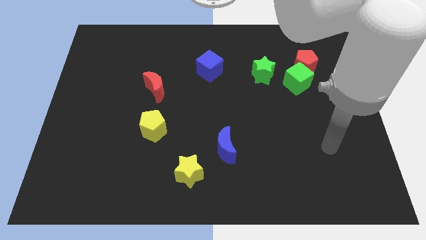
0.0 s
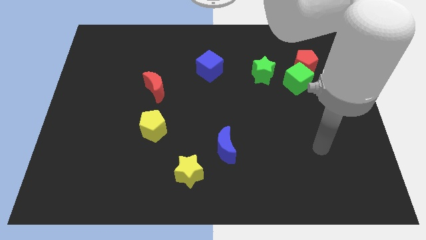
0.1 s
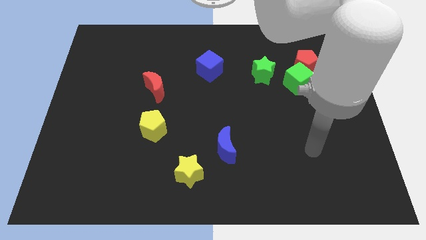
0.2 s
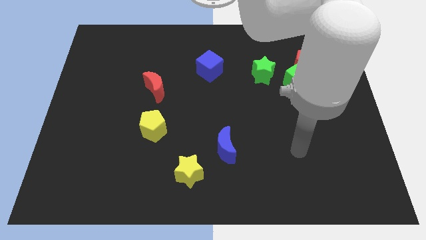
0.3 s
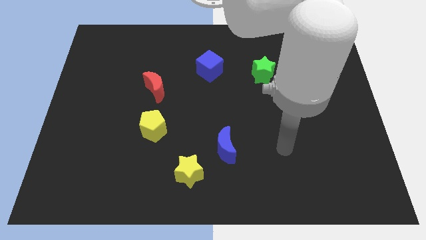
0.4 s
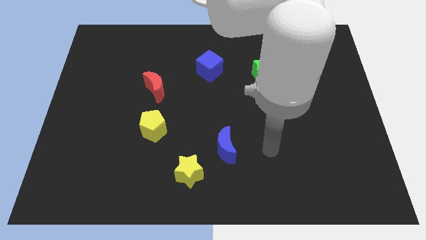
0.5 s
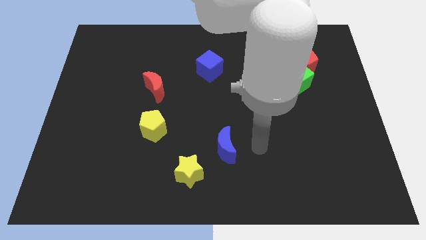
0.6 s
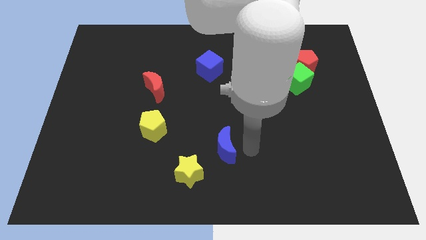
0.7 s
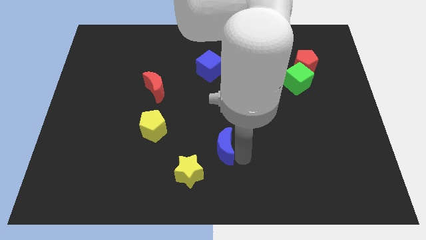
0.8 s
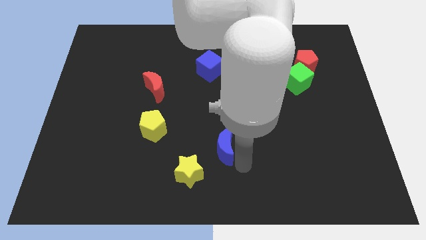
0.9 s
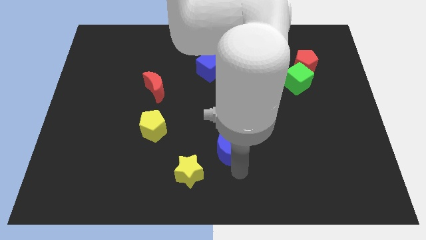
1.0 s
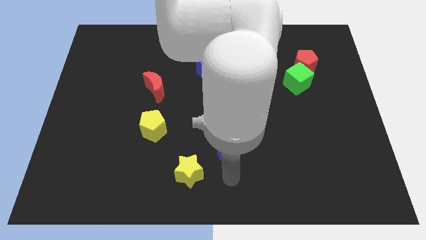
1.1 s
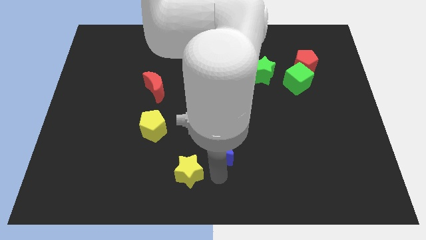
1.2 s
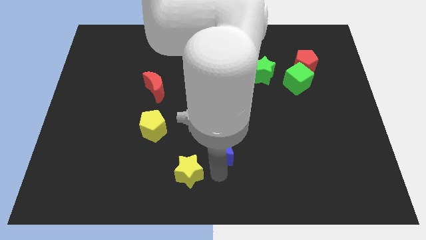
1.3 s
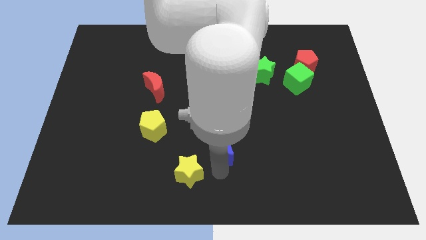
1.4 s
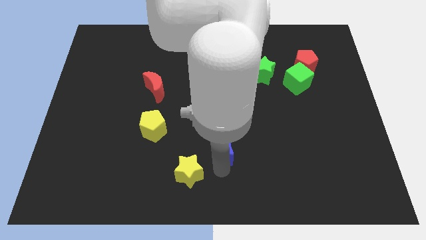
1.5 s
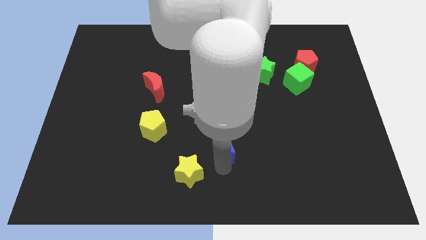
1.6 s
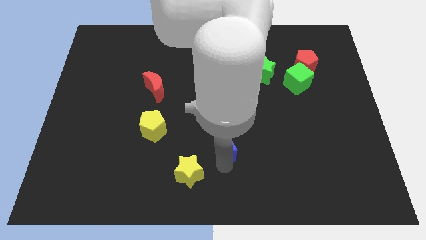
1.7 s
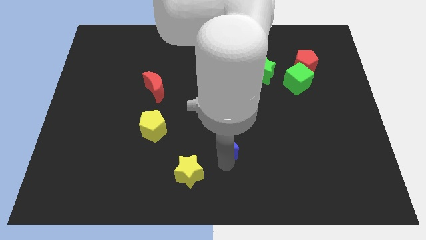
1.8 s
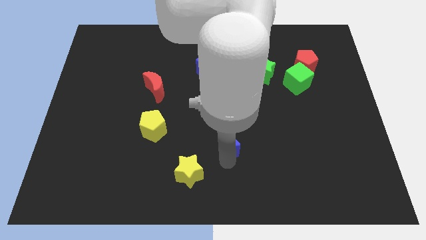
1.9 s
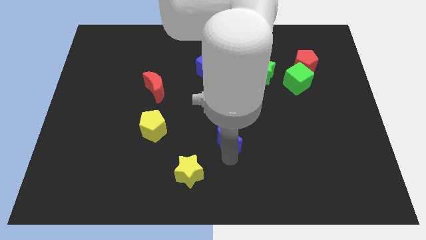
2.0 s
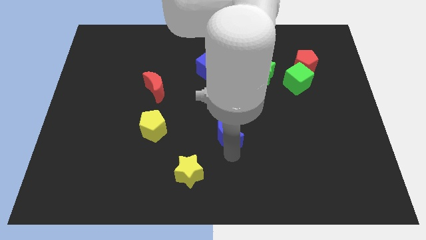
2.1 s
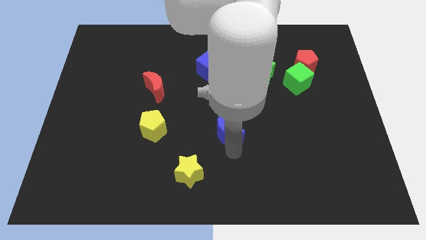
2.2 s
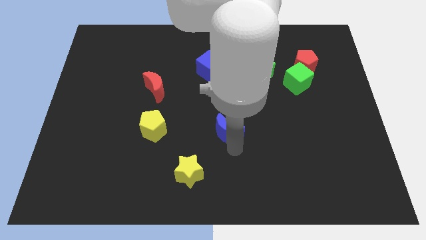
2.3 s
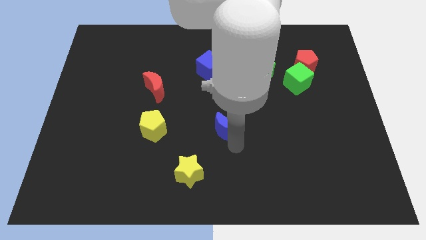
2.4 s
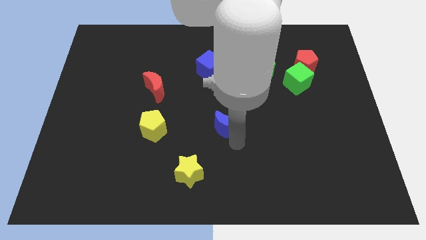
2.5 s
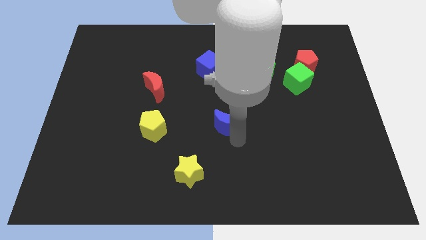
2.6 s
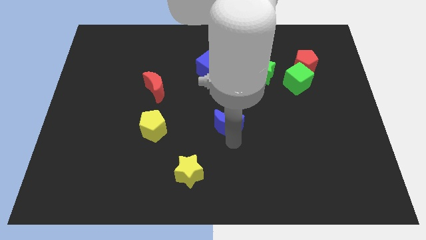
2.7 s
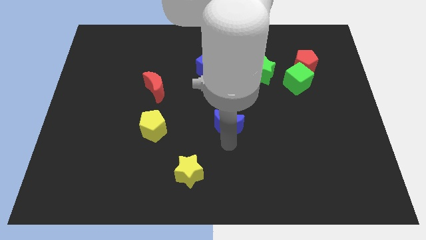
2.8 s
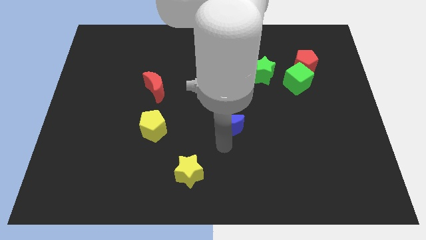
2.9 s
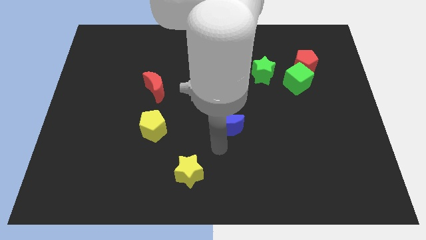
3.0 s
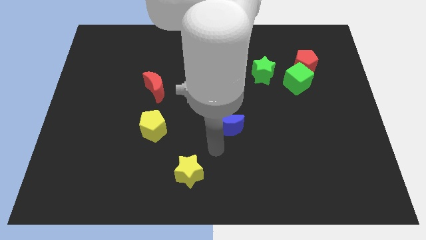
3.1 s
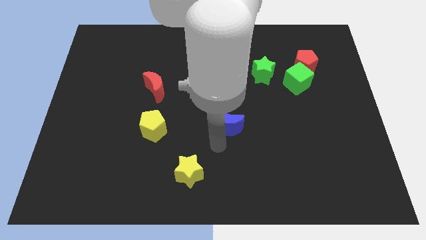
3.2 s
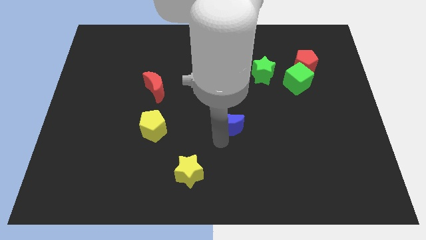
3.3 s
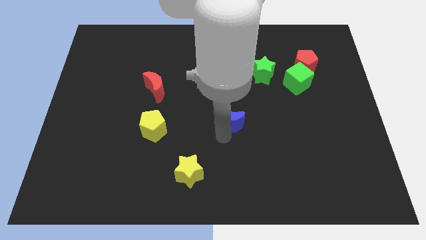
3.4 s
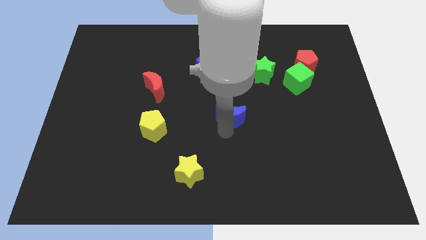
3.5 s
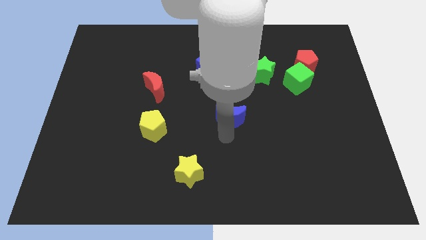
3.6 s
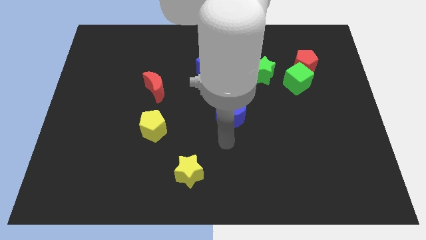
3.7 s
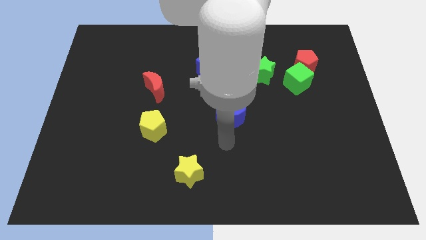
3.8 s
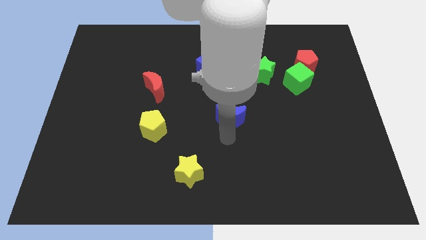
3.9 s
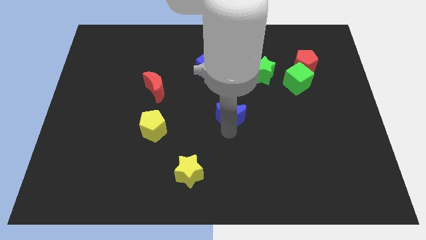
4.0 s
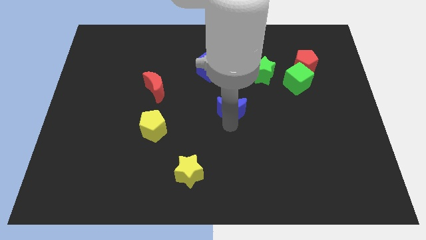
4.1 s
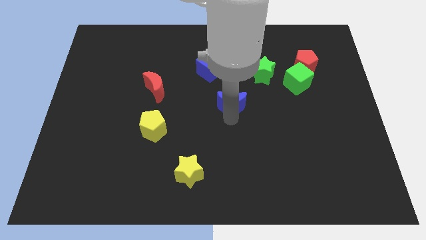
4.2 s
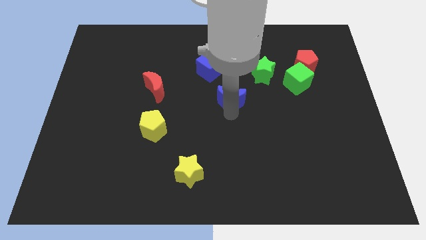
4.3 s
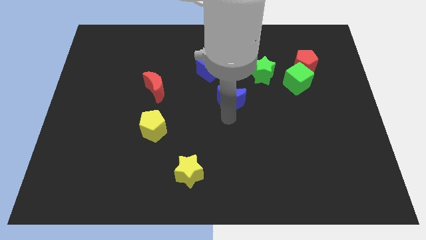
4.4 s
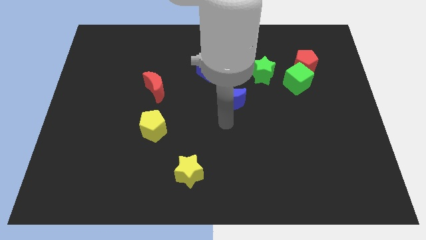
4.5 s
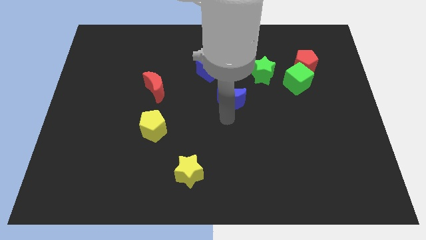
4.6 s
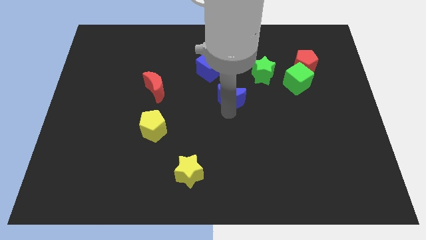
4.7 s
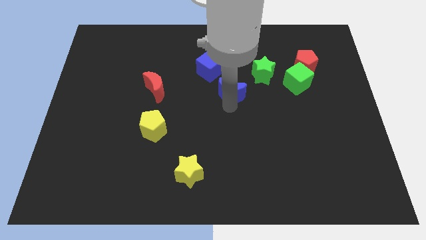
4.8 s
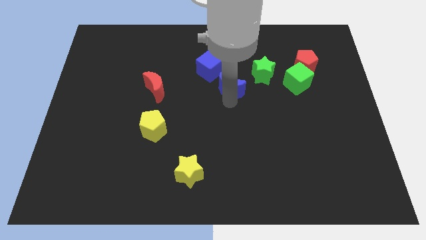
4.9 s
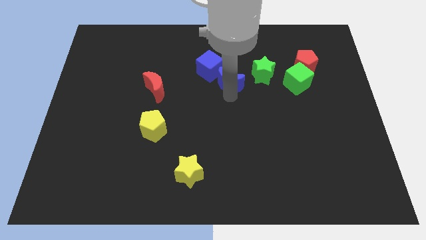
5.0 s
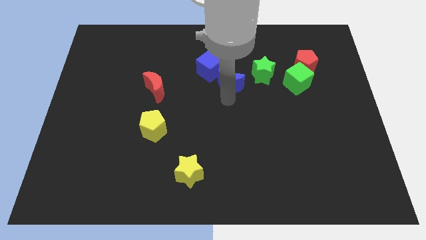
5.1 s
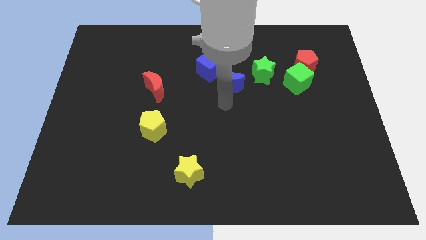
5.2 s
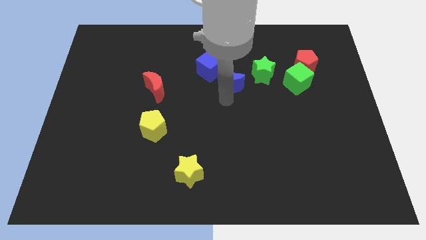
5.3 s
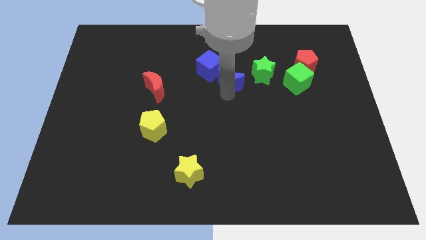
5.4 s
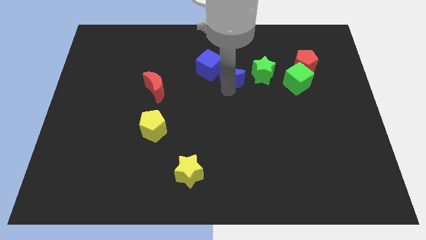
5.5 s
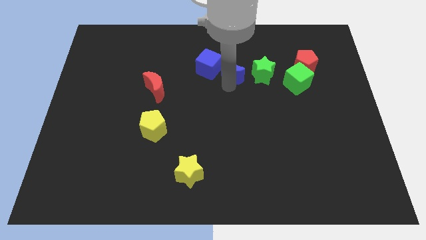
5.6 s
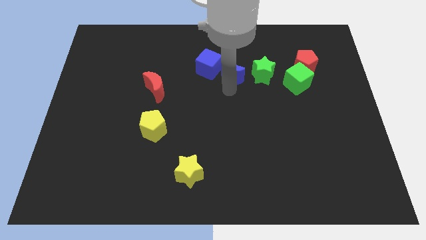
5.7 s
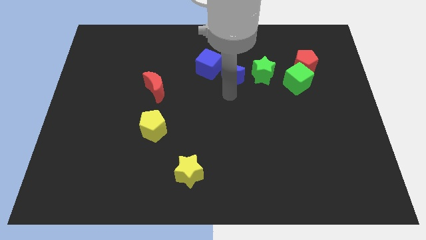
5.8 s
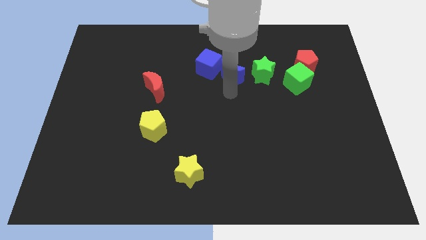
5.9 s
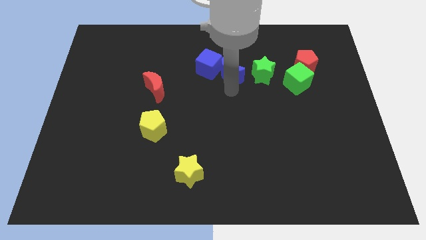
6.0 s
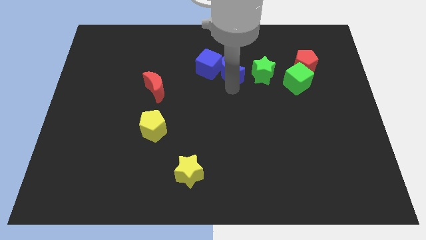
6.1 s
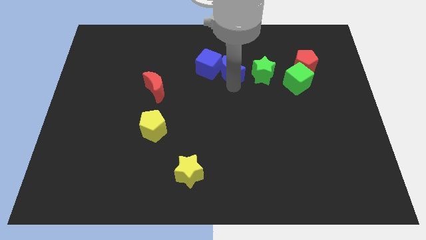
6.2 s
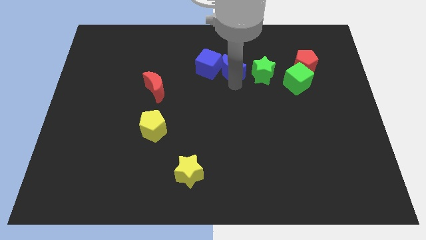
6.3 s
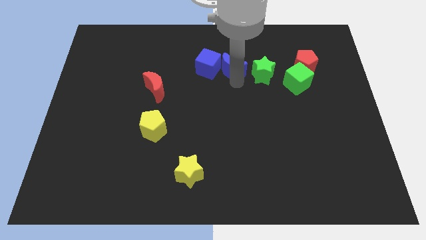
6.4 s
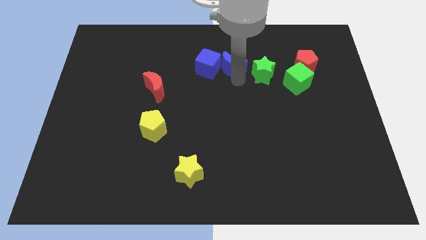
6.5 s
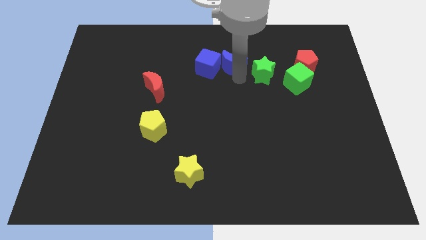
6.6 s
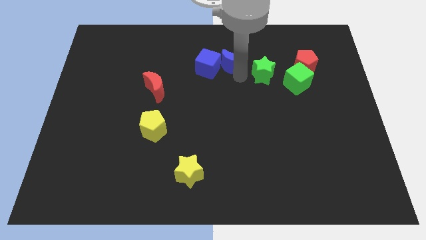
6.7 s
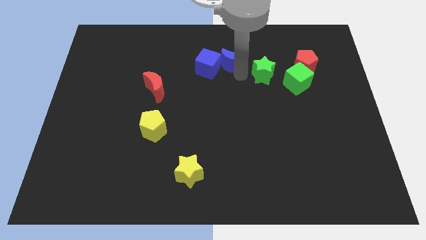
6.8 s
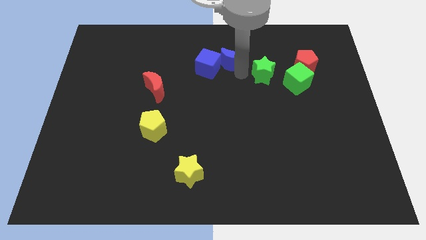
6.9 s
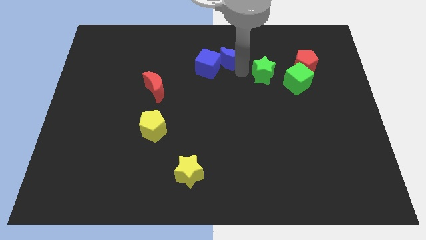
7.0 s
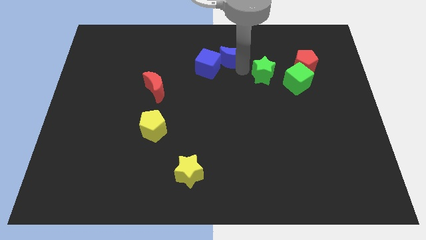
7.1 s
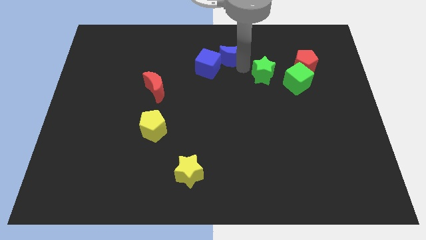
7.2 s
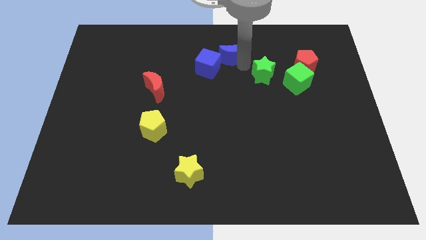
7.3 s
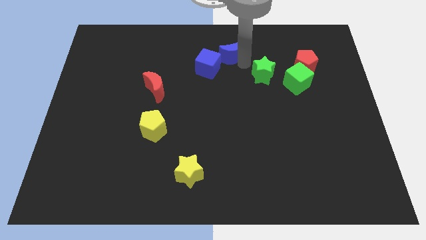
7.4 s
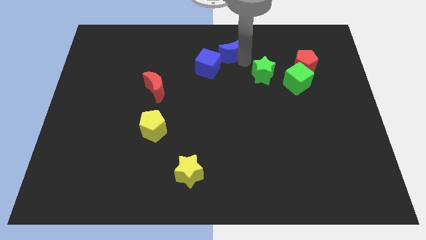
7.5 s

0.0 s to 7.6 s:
move the blue moon to the top side

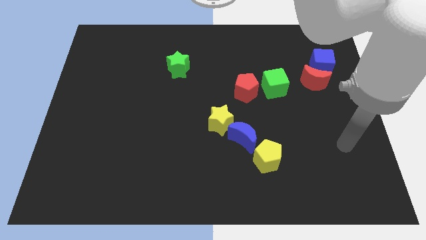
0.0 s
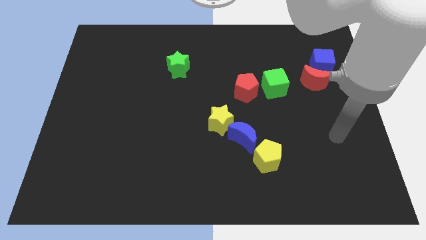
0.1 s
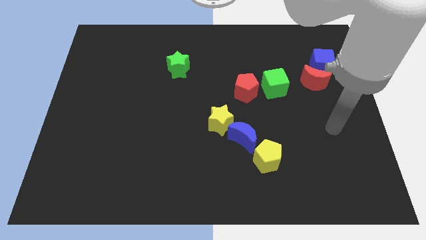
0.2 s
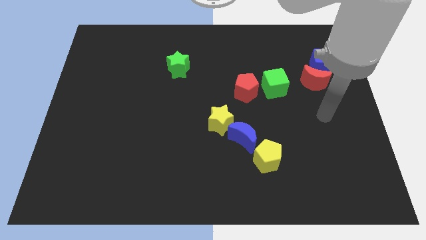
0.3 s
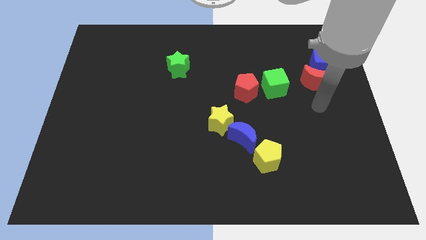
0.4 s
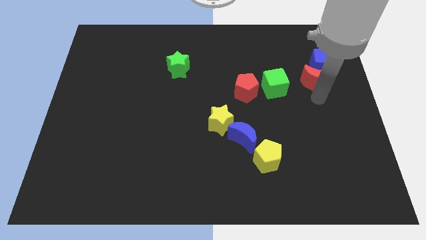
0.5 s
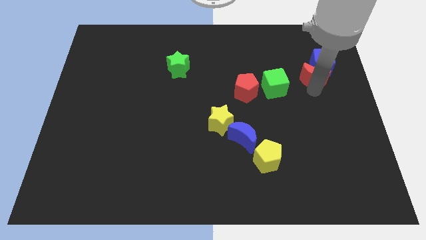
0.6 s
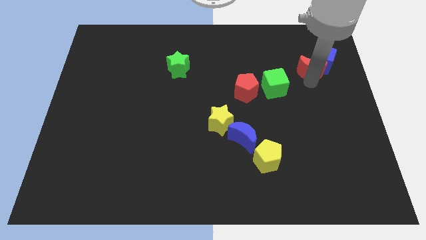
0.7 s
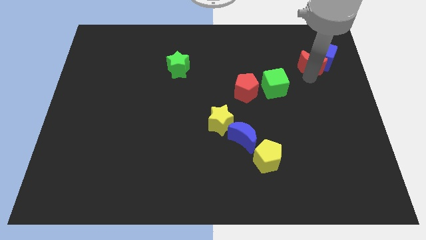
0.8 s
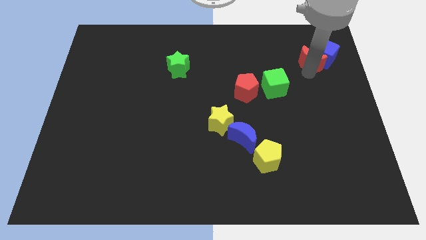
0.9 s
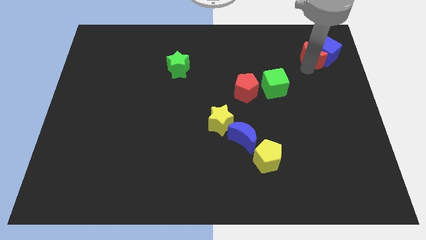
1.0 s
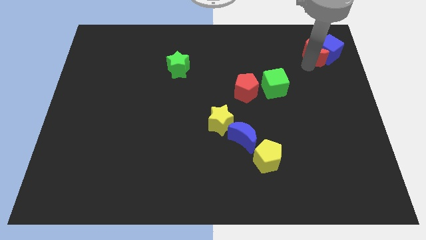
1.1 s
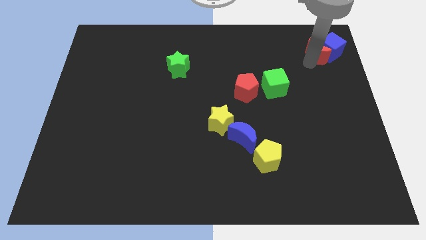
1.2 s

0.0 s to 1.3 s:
push the blue cube to the top right of the board
